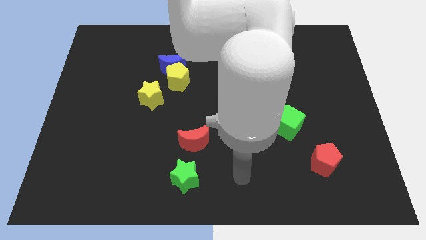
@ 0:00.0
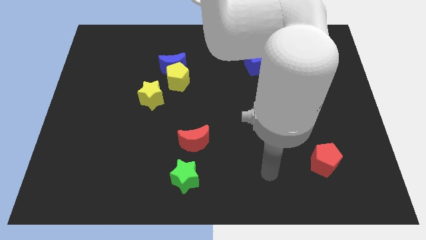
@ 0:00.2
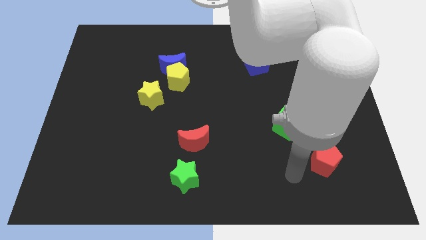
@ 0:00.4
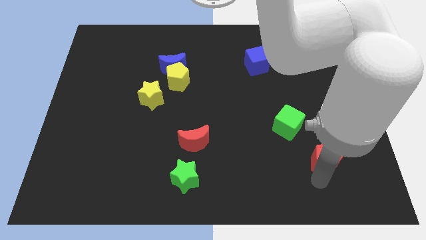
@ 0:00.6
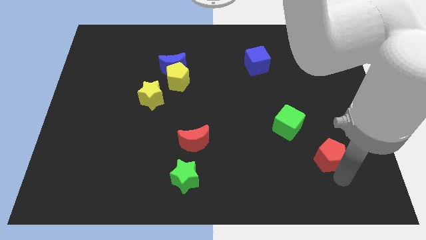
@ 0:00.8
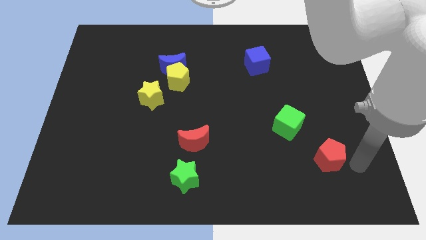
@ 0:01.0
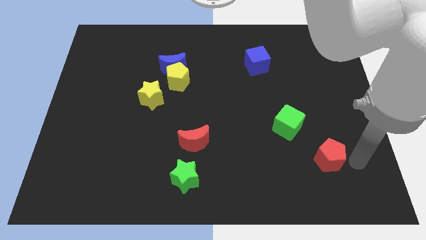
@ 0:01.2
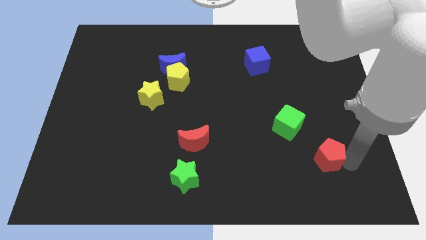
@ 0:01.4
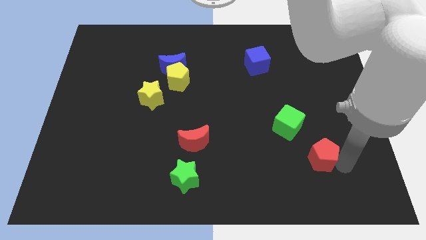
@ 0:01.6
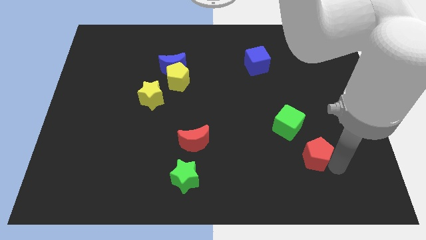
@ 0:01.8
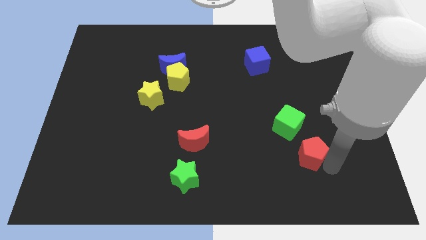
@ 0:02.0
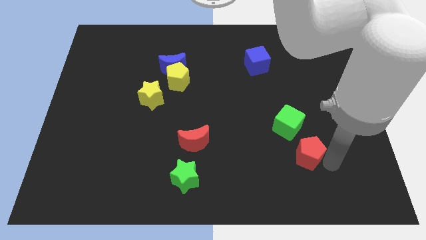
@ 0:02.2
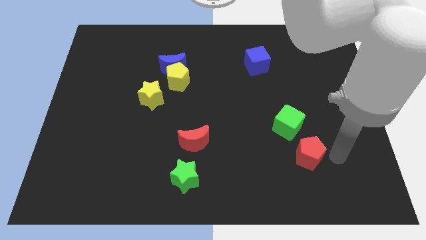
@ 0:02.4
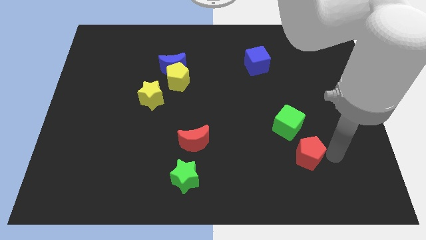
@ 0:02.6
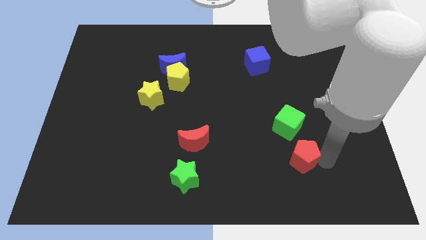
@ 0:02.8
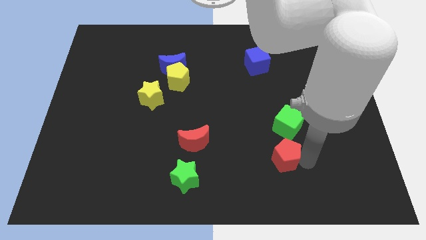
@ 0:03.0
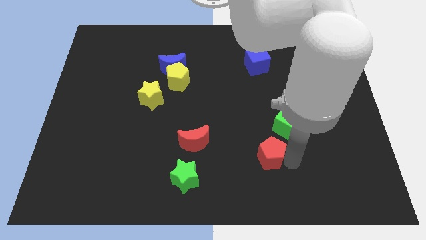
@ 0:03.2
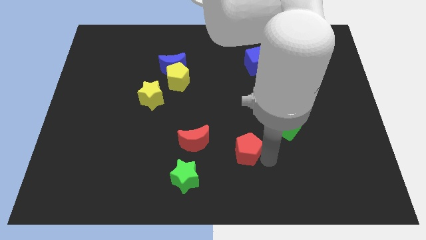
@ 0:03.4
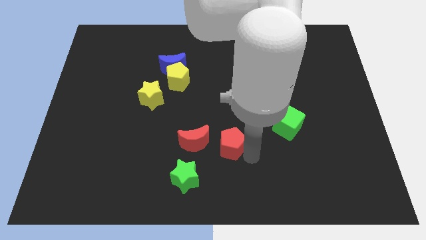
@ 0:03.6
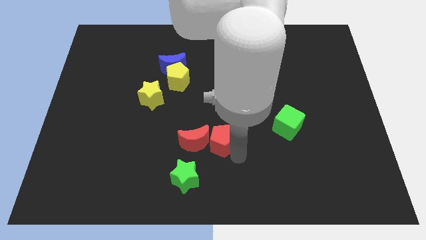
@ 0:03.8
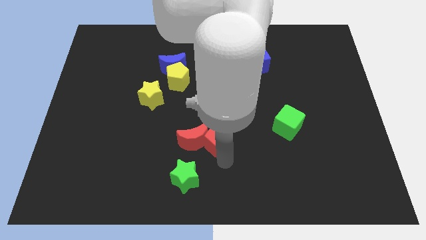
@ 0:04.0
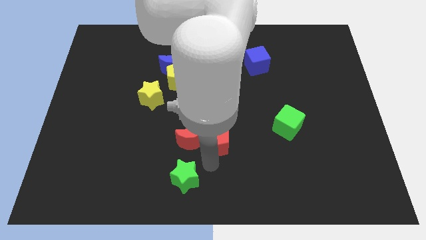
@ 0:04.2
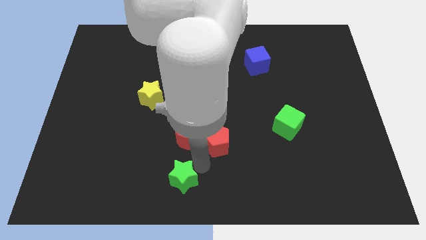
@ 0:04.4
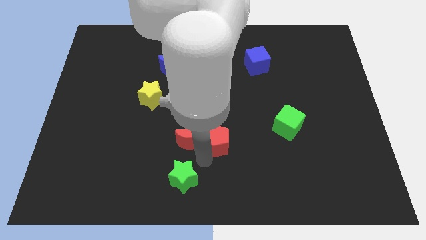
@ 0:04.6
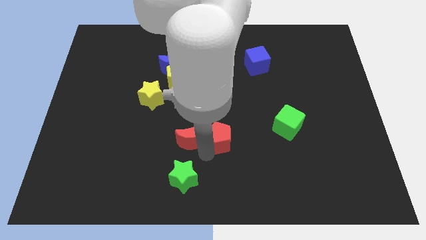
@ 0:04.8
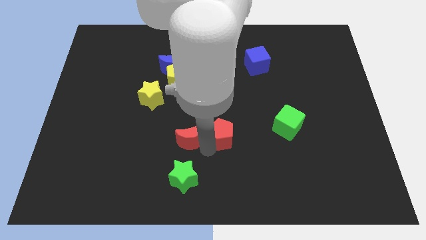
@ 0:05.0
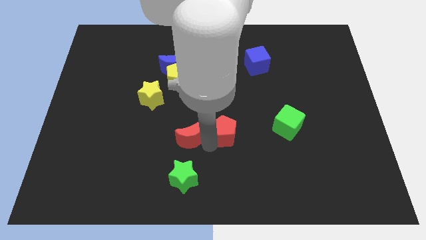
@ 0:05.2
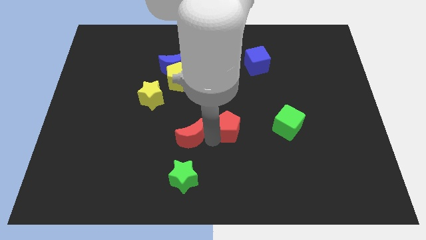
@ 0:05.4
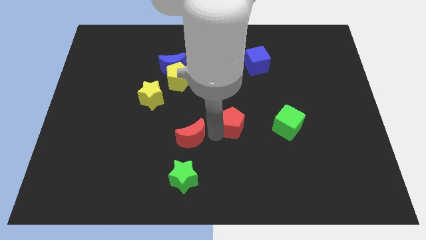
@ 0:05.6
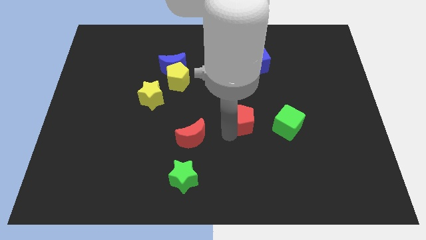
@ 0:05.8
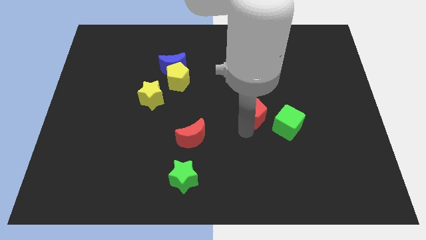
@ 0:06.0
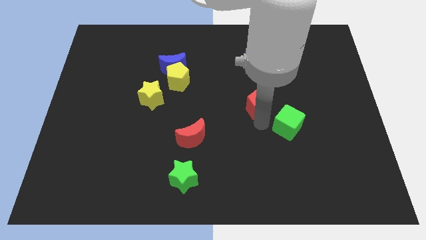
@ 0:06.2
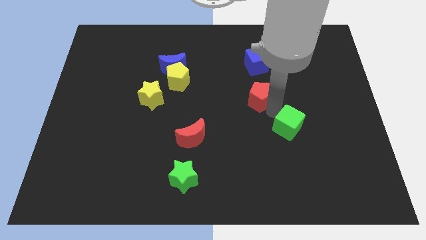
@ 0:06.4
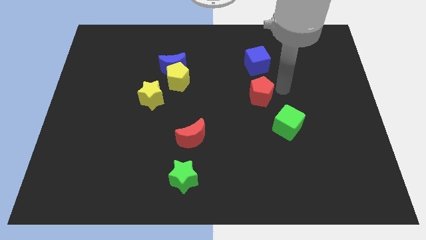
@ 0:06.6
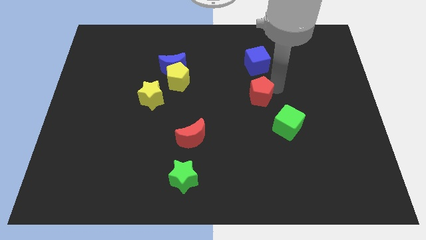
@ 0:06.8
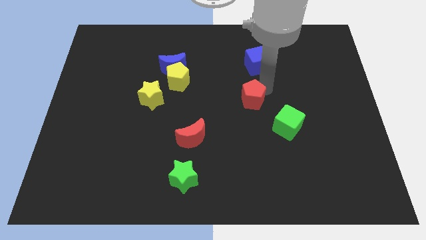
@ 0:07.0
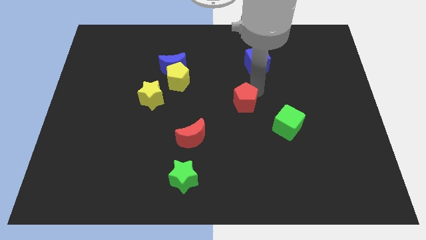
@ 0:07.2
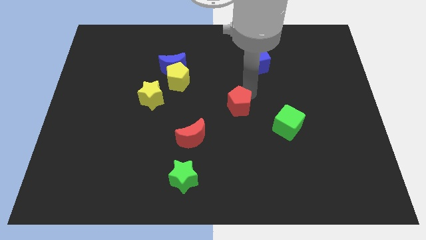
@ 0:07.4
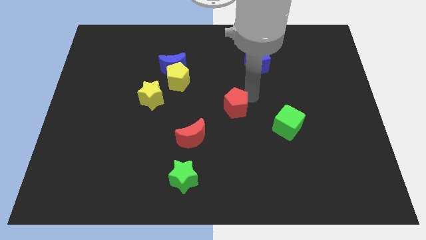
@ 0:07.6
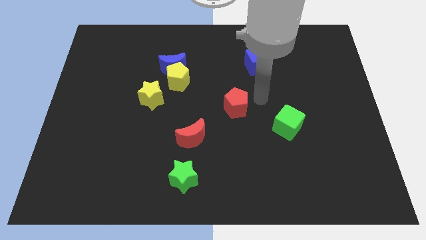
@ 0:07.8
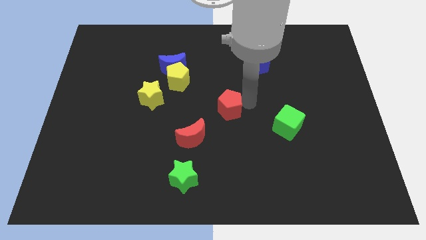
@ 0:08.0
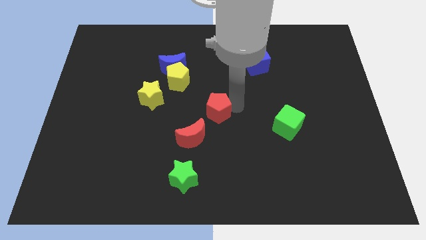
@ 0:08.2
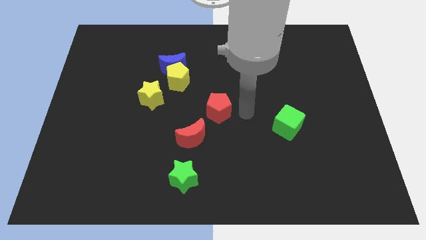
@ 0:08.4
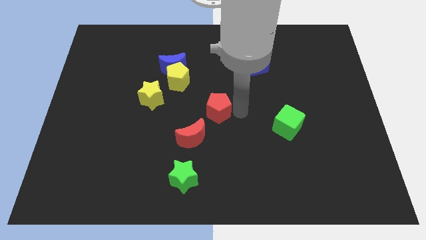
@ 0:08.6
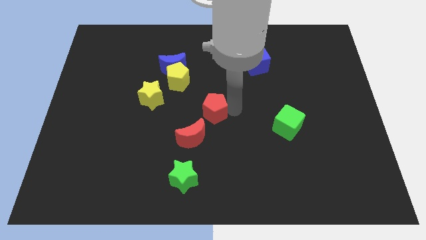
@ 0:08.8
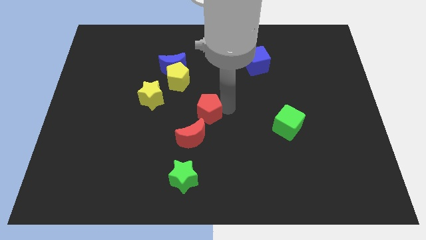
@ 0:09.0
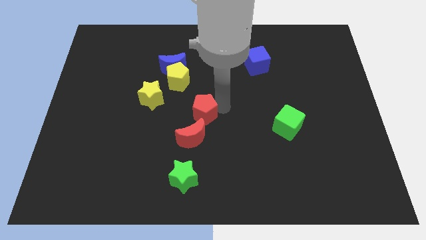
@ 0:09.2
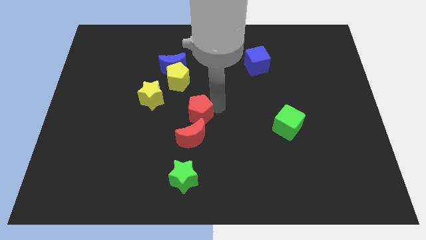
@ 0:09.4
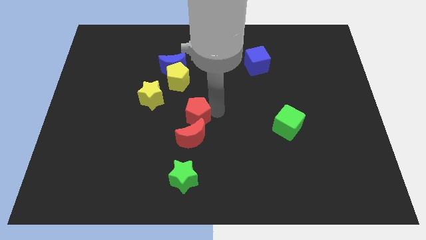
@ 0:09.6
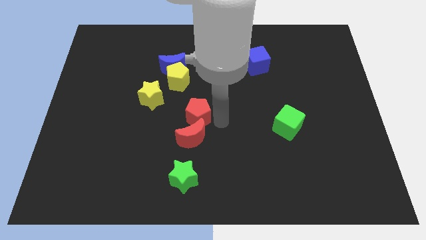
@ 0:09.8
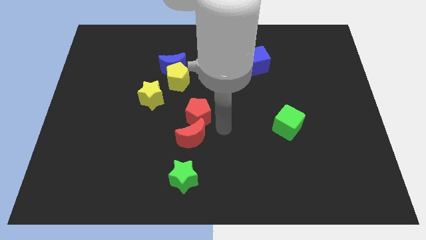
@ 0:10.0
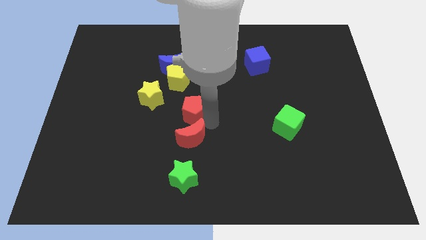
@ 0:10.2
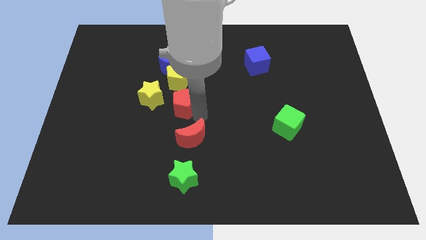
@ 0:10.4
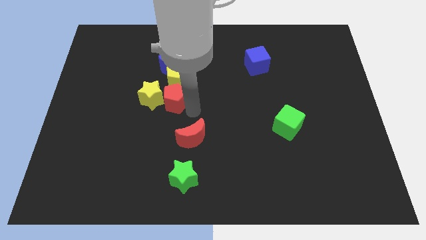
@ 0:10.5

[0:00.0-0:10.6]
slide the red pentagon next to the yellow star

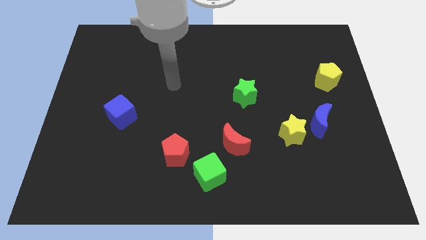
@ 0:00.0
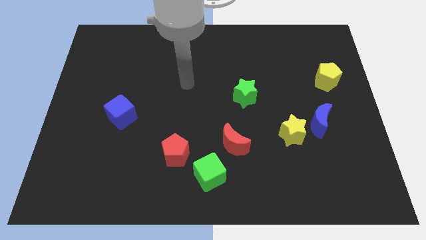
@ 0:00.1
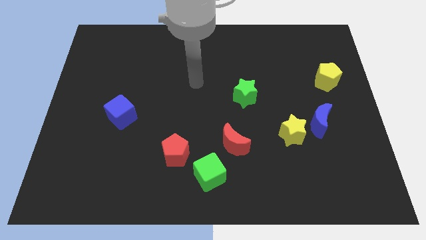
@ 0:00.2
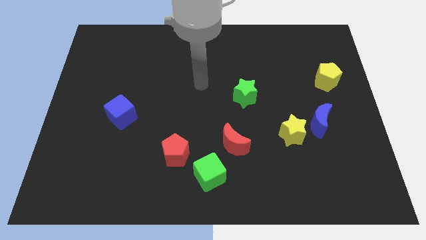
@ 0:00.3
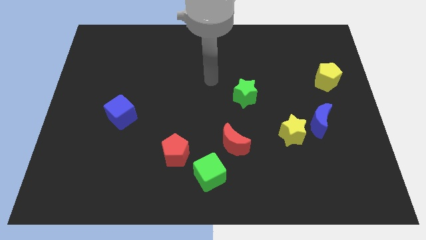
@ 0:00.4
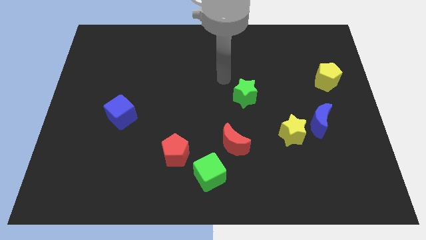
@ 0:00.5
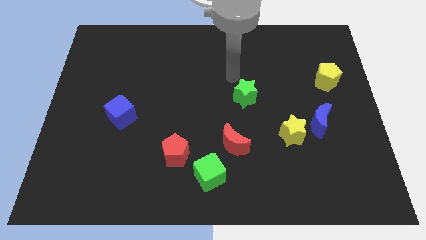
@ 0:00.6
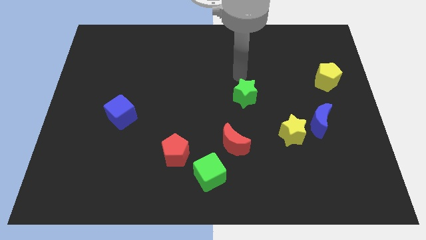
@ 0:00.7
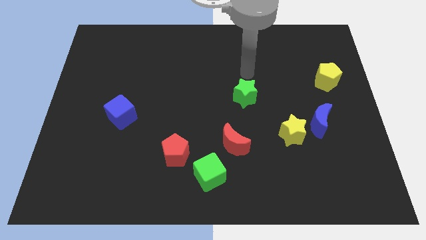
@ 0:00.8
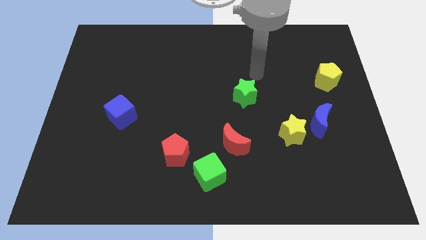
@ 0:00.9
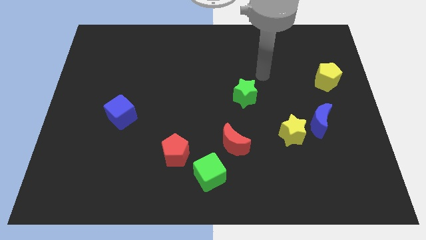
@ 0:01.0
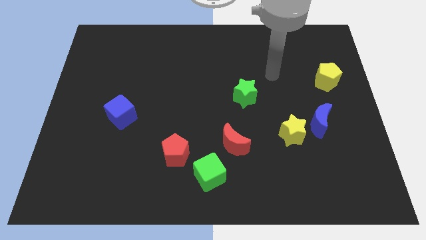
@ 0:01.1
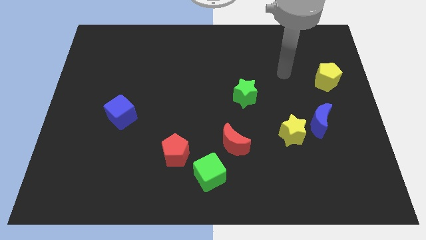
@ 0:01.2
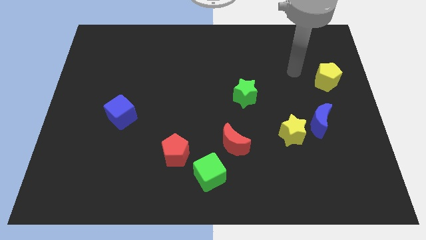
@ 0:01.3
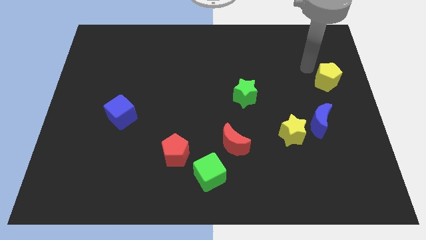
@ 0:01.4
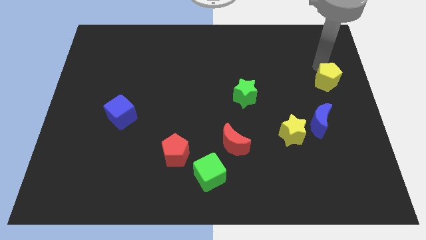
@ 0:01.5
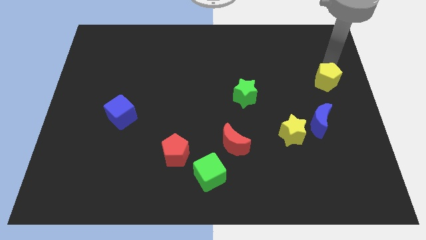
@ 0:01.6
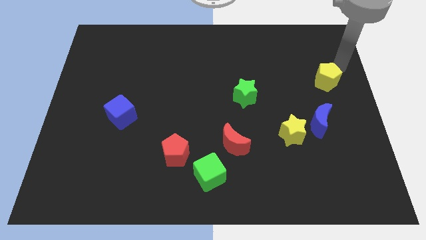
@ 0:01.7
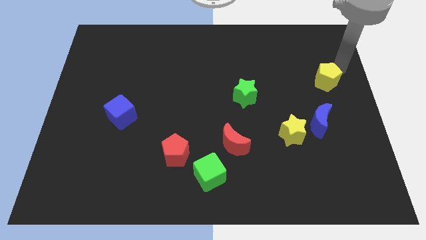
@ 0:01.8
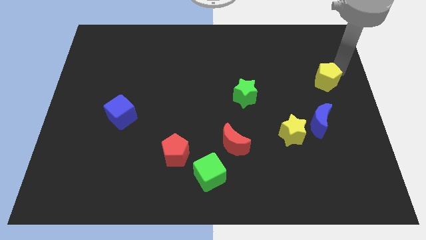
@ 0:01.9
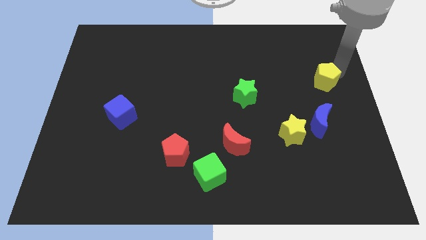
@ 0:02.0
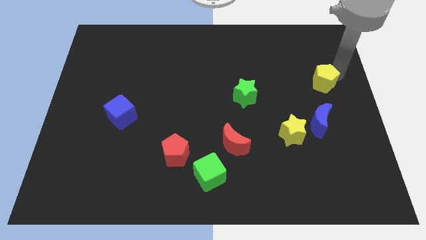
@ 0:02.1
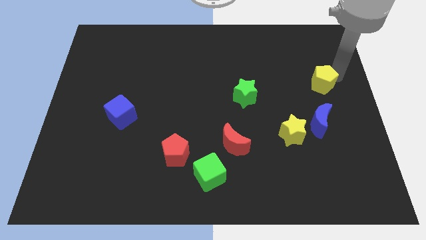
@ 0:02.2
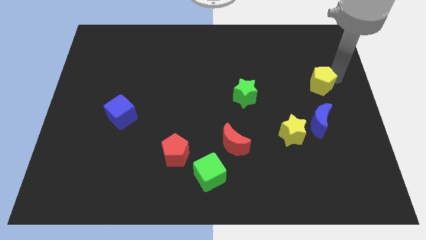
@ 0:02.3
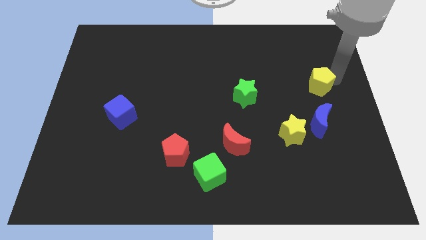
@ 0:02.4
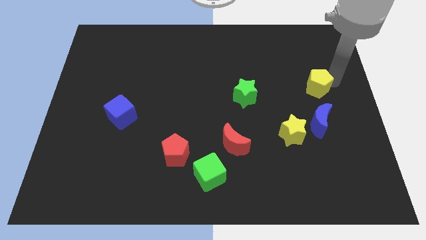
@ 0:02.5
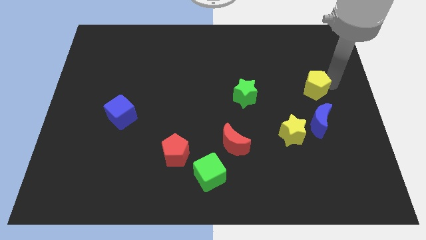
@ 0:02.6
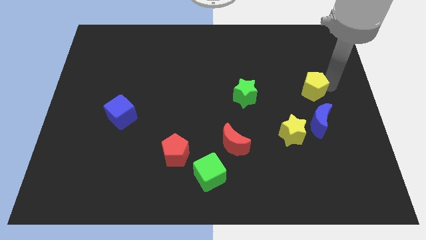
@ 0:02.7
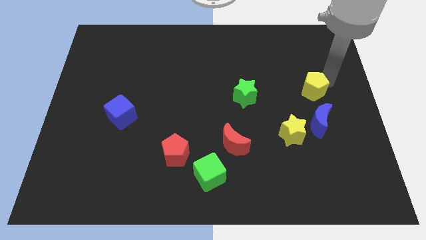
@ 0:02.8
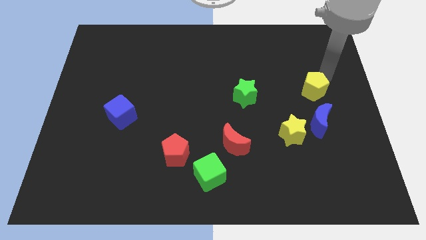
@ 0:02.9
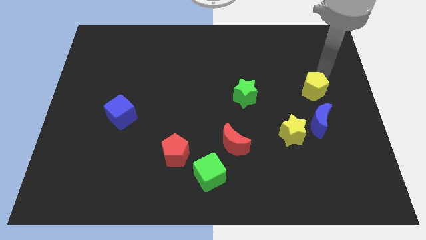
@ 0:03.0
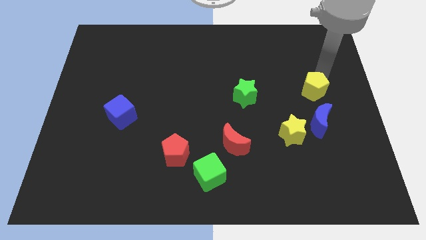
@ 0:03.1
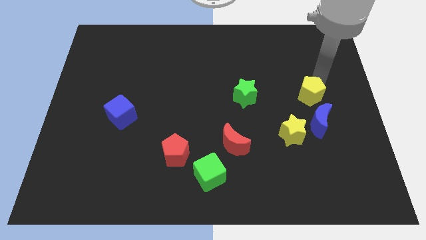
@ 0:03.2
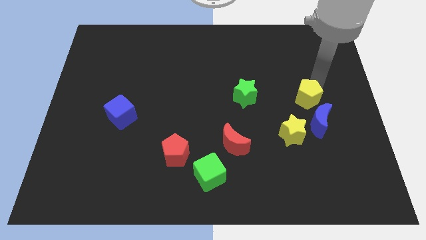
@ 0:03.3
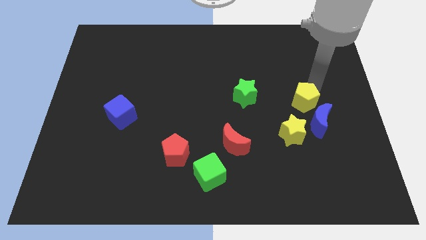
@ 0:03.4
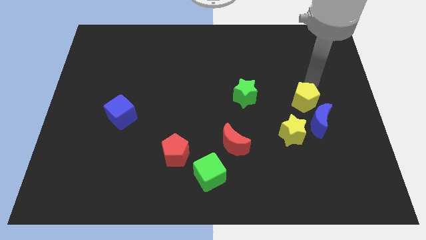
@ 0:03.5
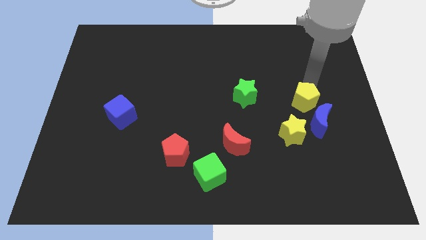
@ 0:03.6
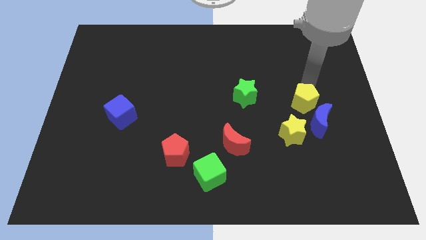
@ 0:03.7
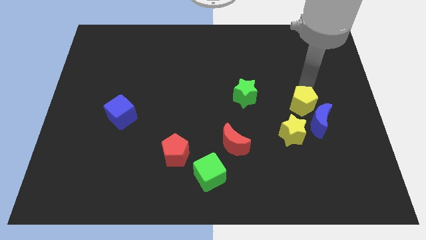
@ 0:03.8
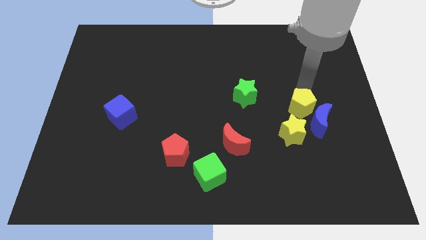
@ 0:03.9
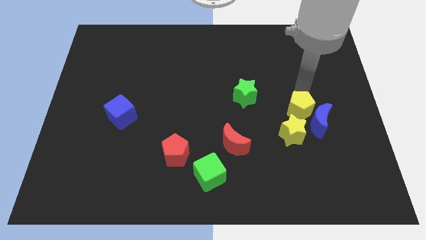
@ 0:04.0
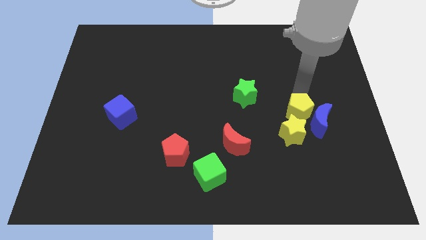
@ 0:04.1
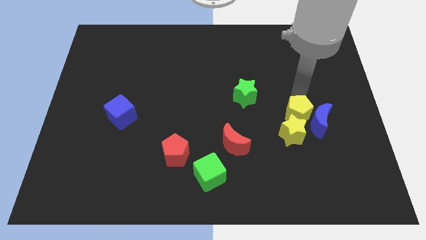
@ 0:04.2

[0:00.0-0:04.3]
push the yellow pentagon towards the yellow star
